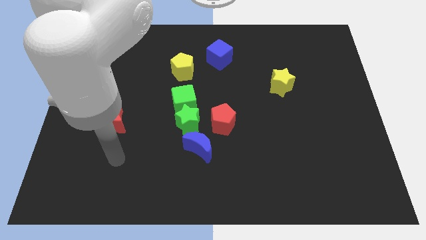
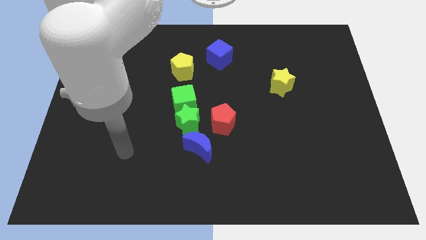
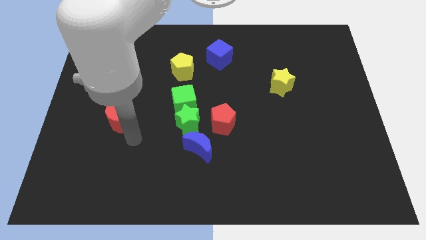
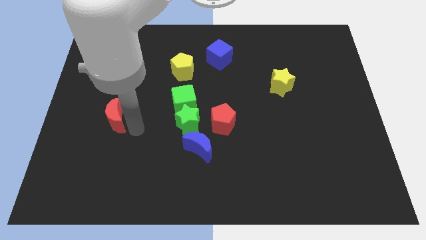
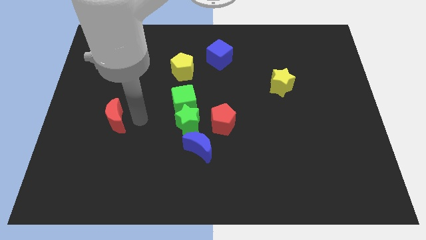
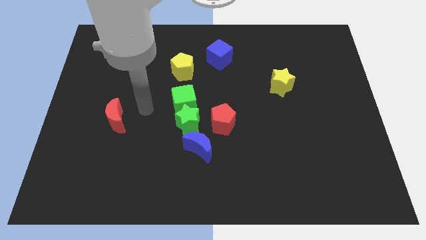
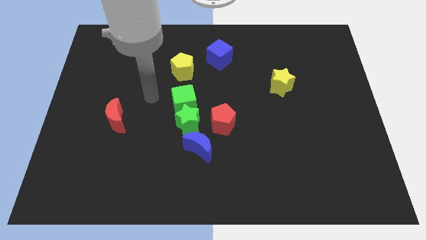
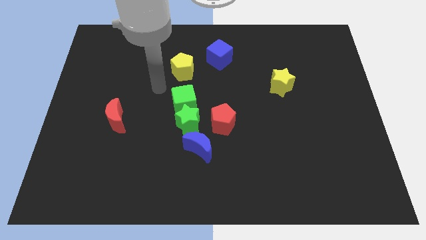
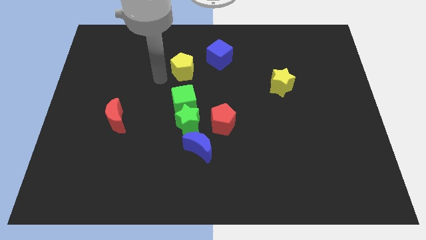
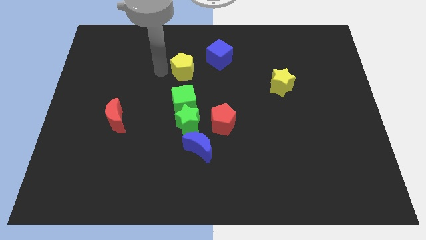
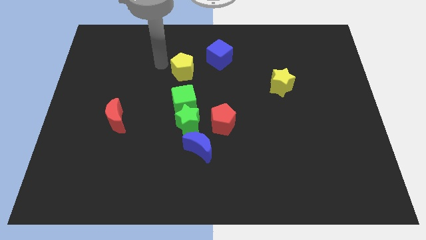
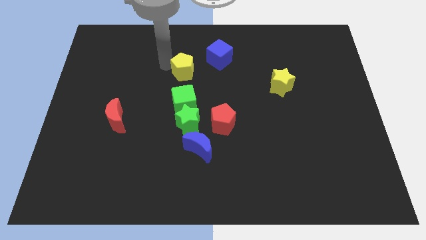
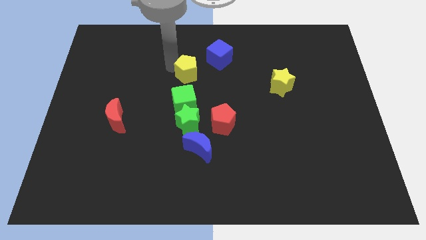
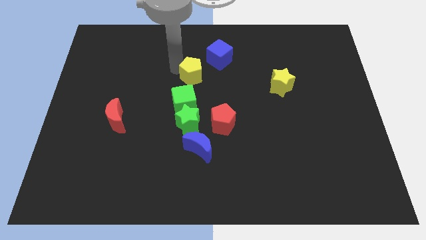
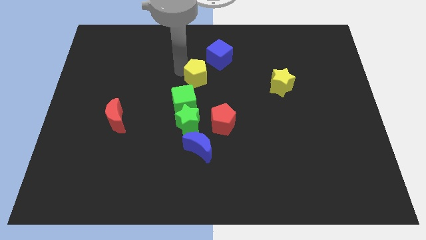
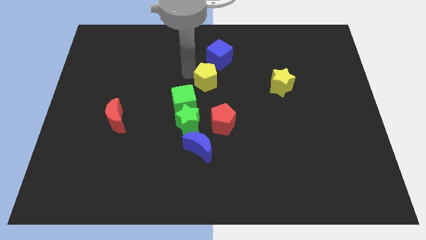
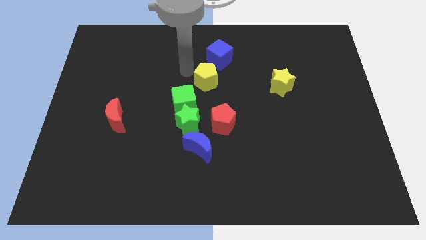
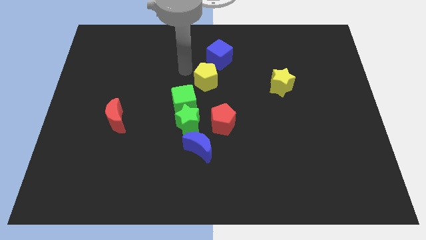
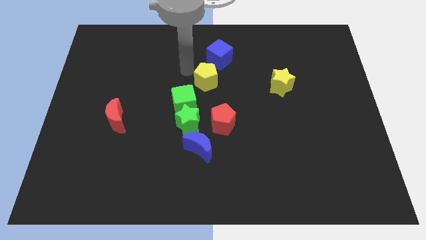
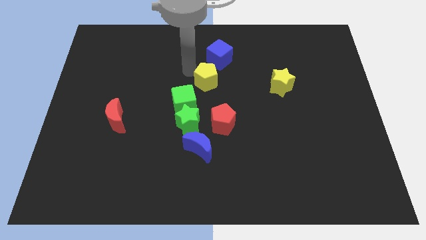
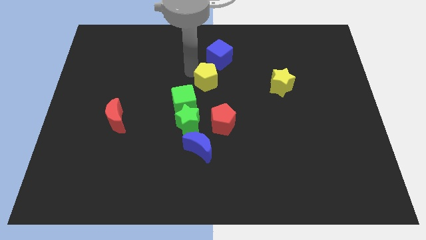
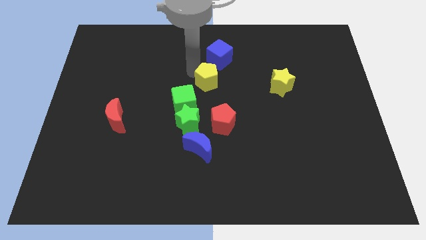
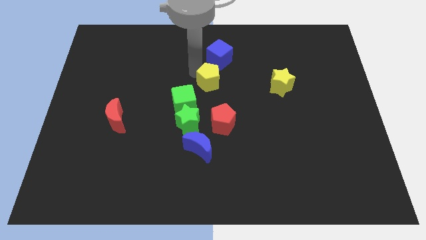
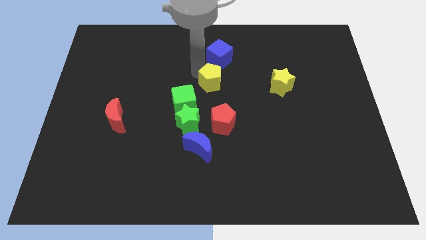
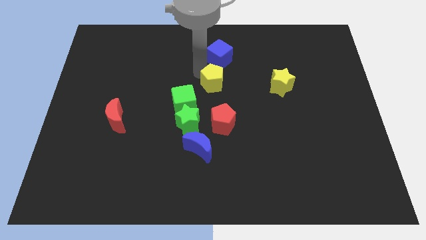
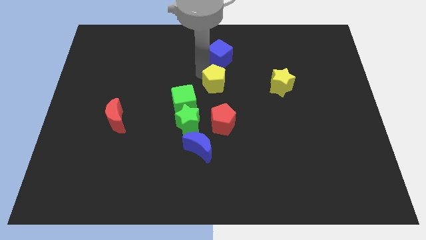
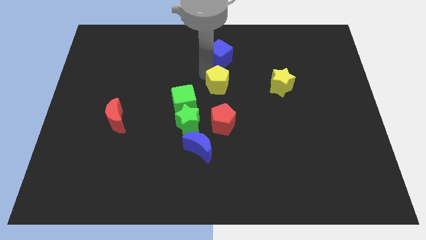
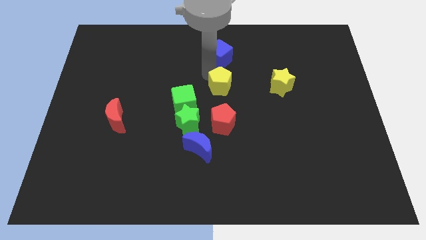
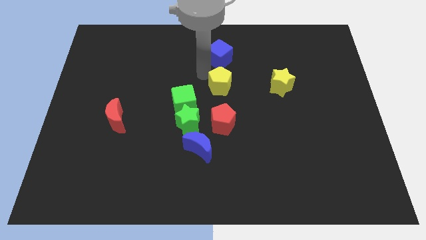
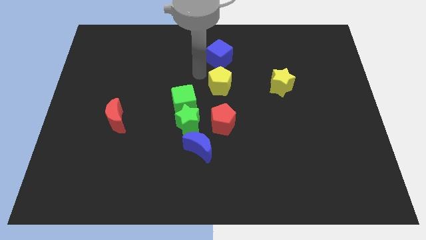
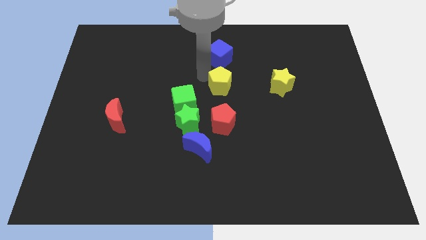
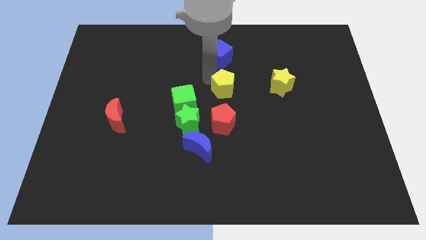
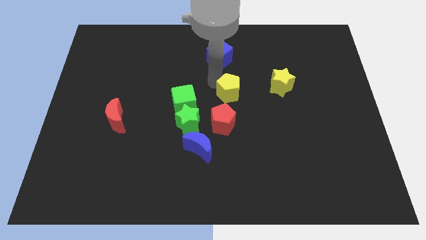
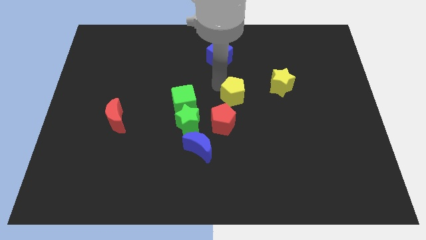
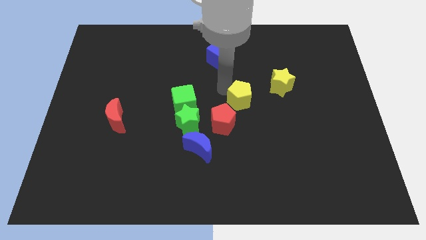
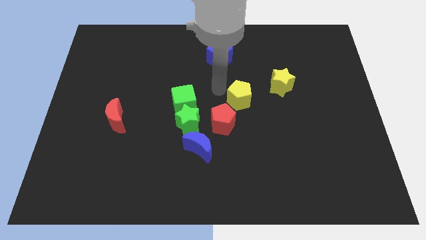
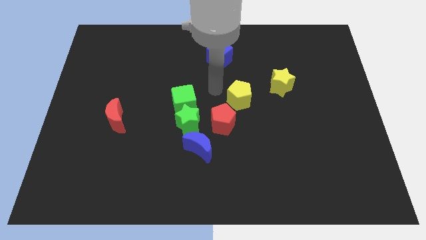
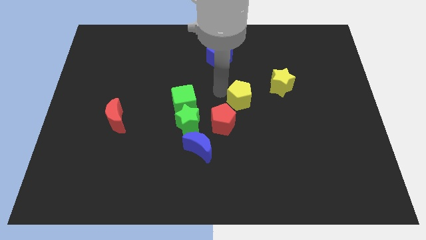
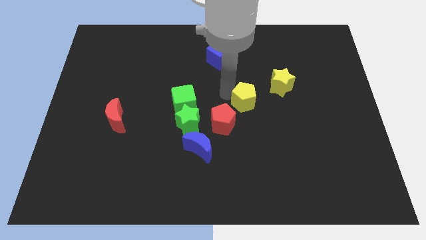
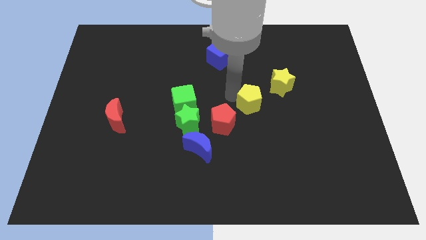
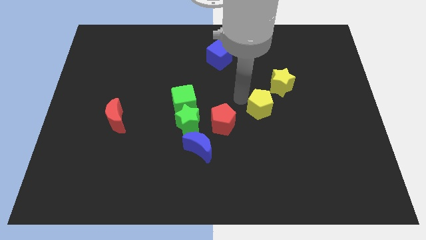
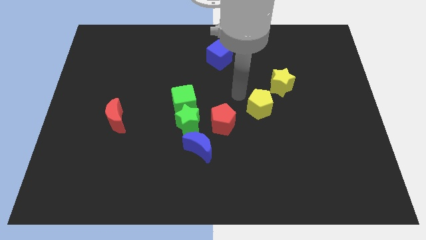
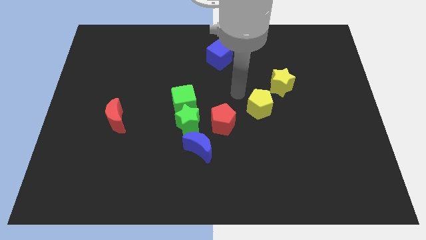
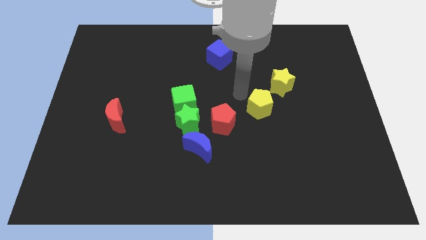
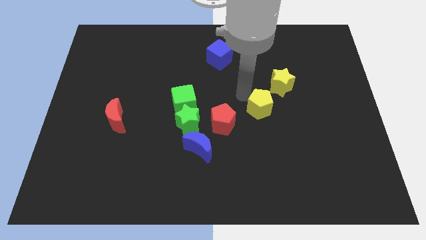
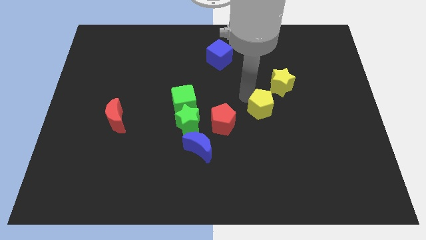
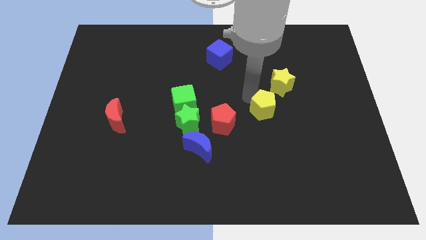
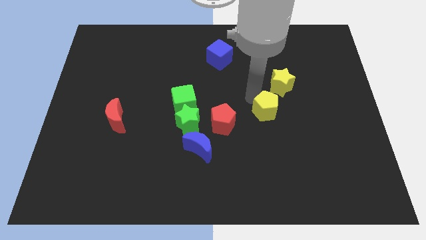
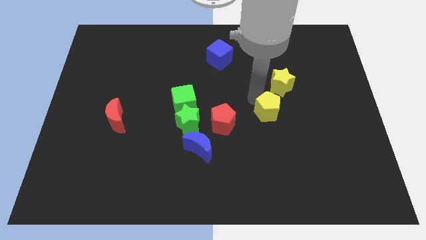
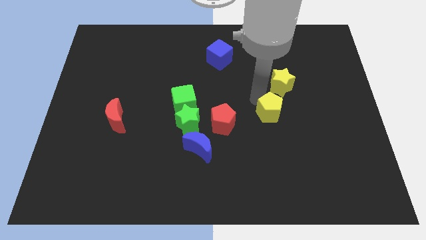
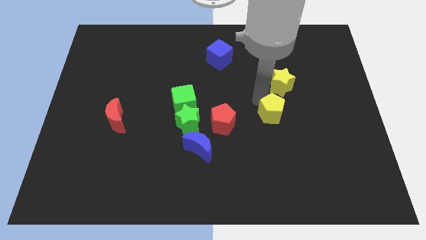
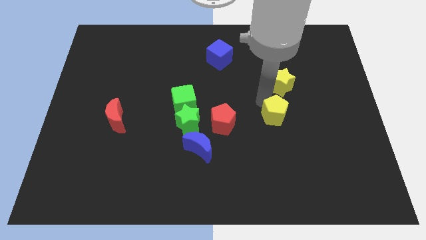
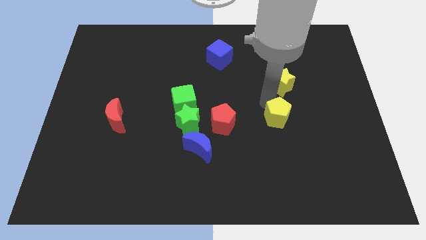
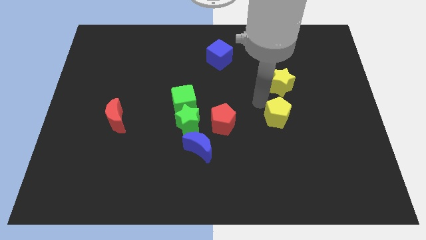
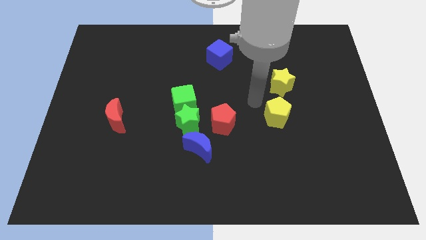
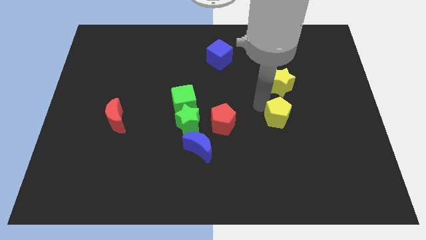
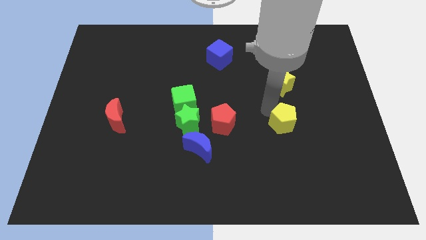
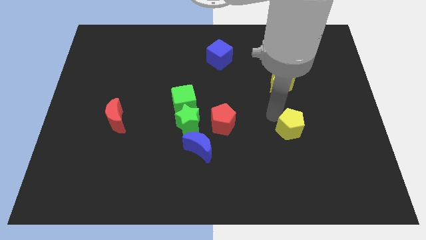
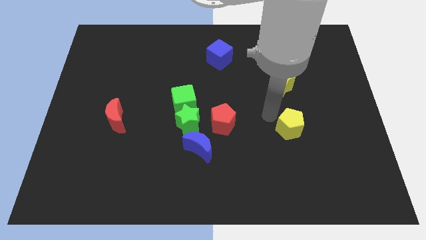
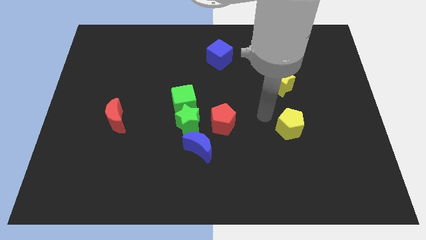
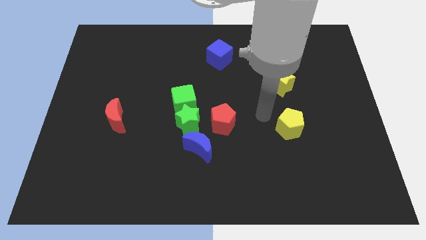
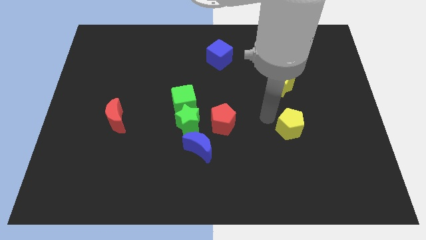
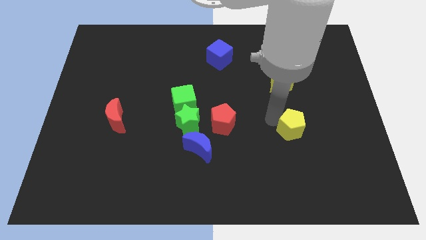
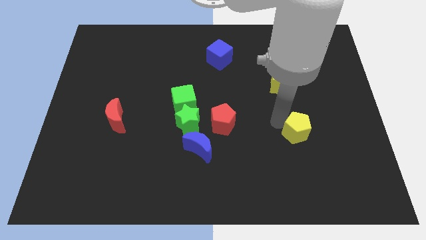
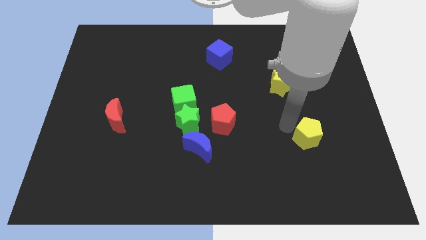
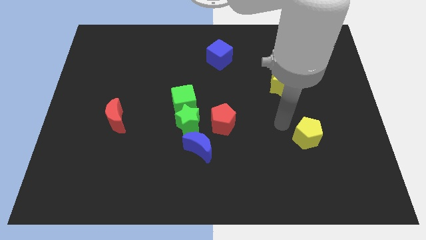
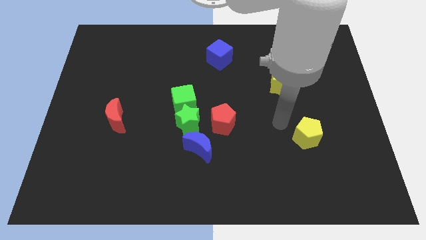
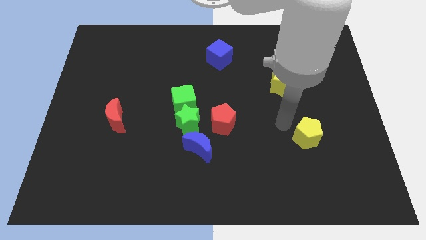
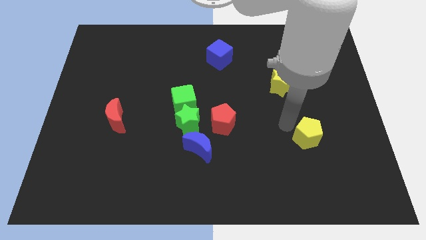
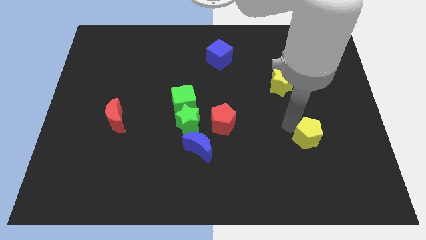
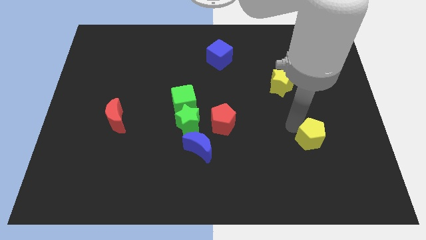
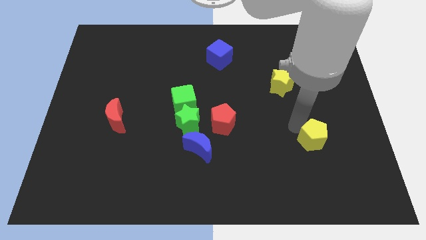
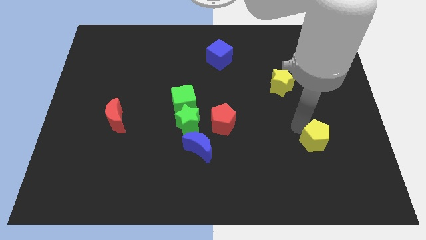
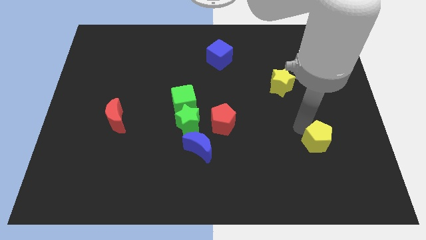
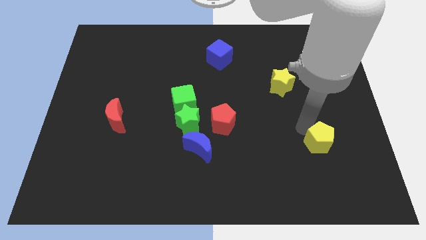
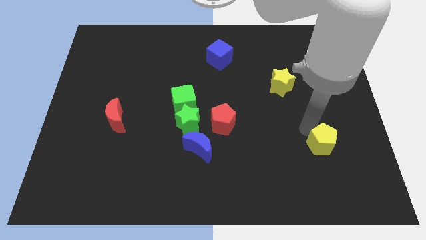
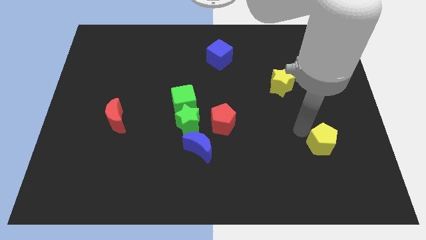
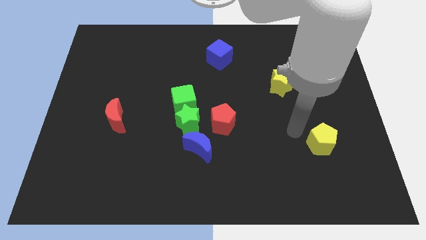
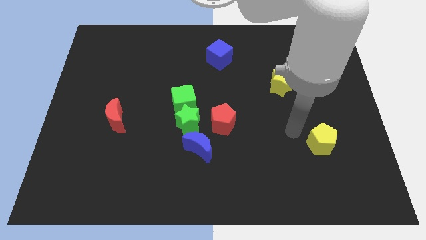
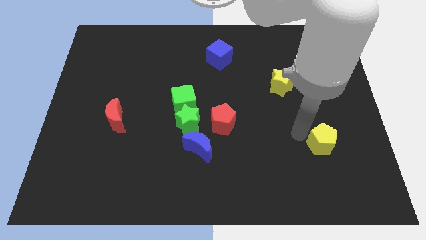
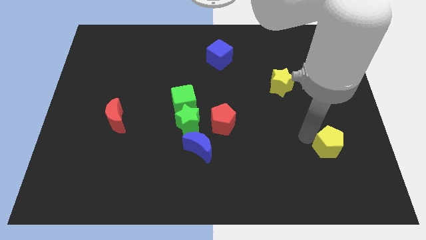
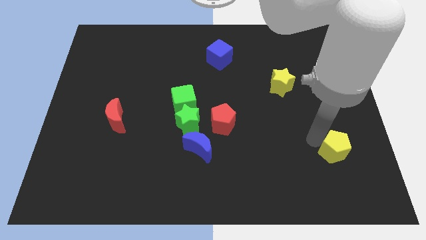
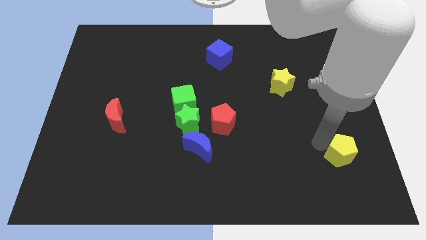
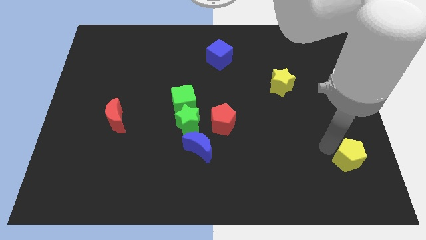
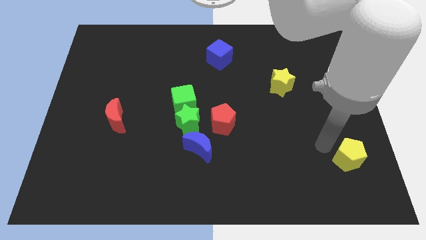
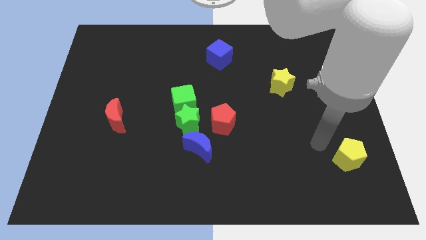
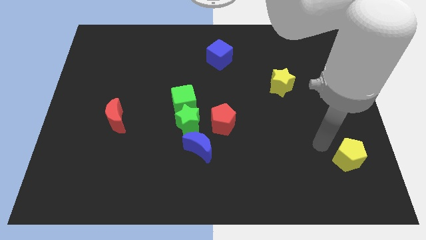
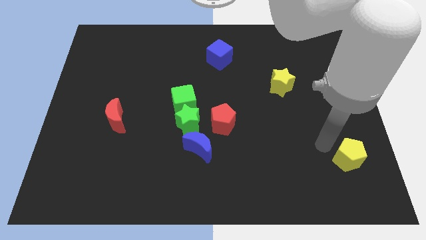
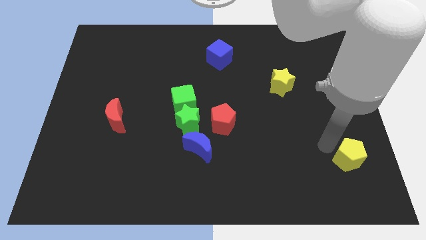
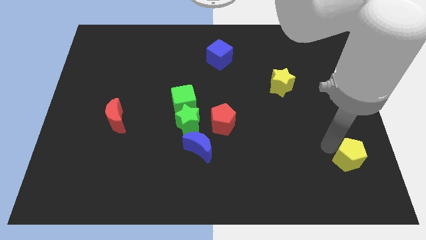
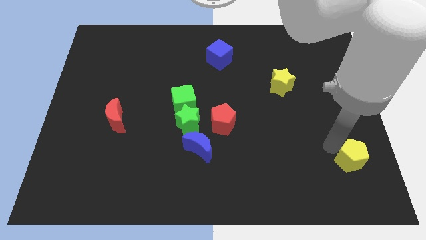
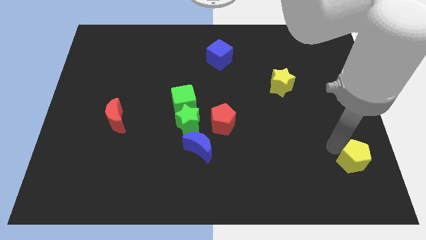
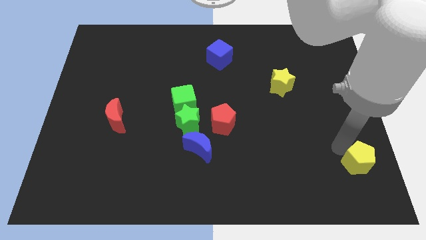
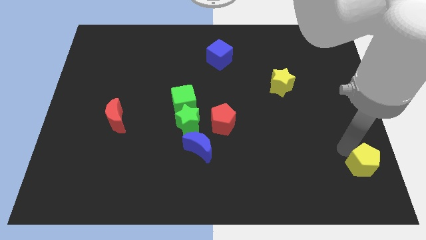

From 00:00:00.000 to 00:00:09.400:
slide the yellow pentagon to the bottom right
